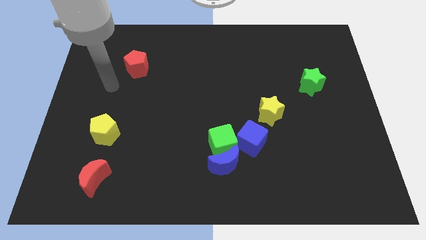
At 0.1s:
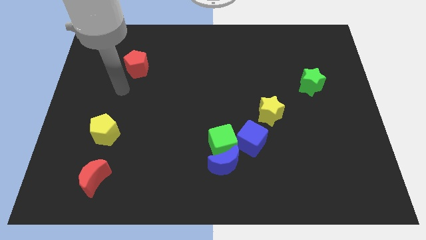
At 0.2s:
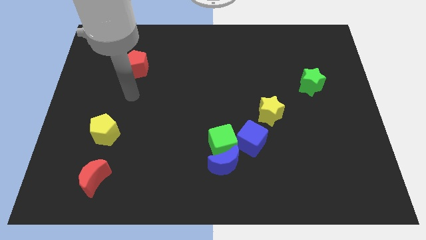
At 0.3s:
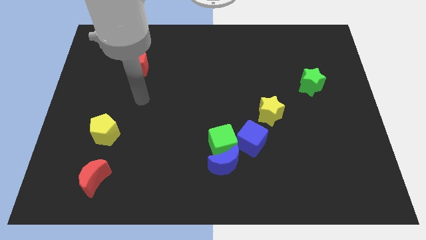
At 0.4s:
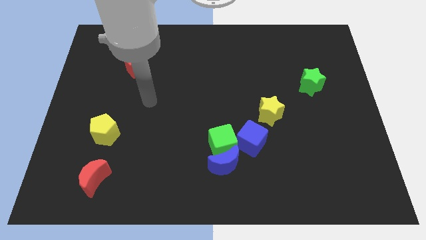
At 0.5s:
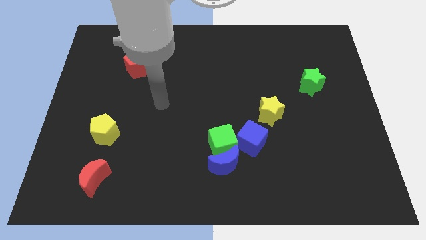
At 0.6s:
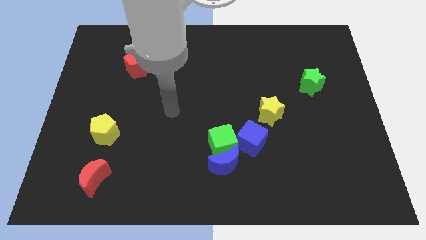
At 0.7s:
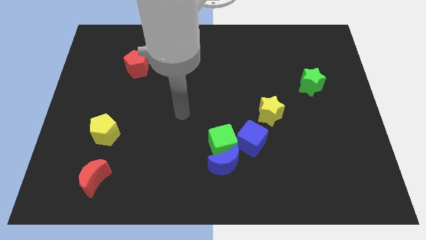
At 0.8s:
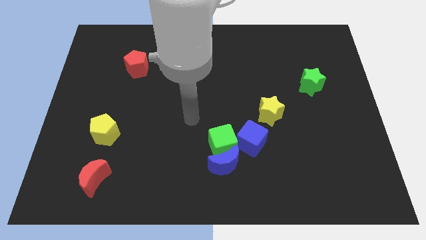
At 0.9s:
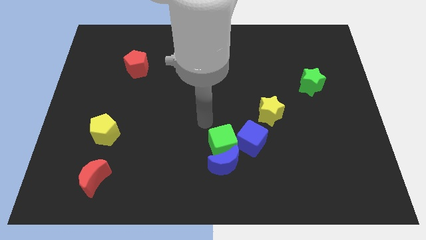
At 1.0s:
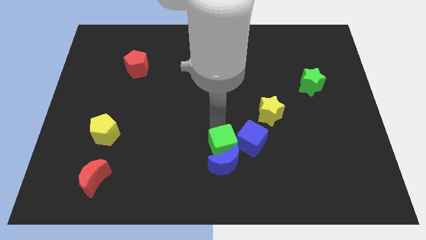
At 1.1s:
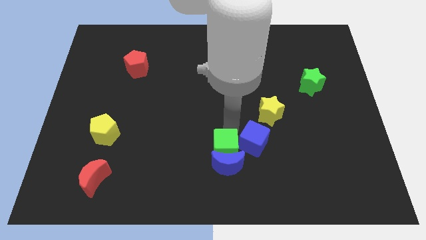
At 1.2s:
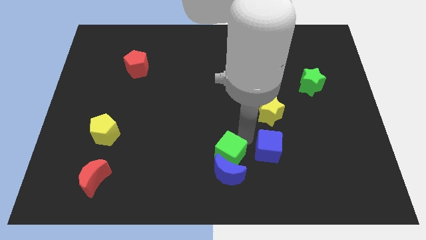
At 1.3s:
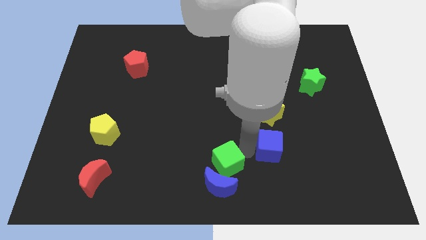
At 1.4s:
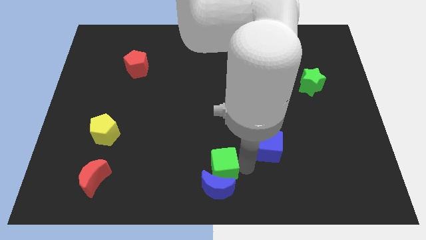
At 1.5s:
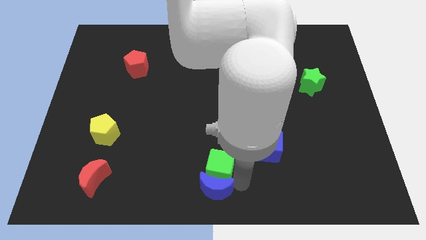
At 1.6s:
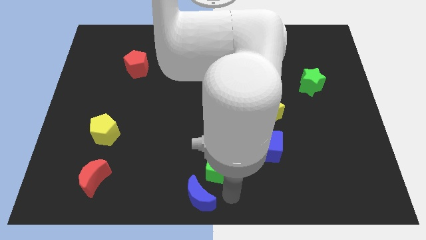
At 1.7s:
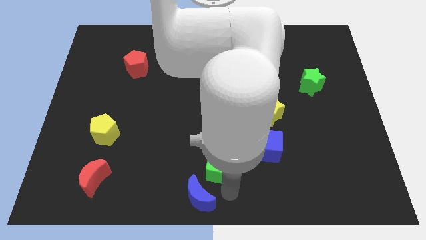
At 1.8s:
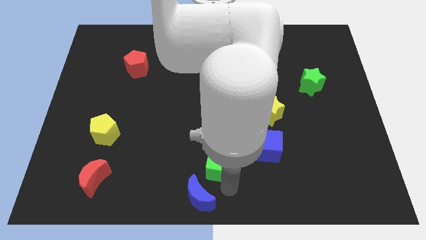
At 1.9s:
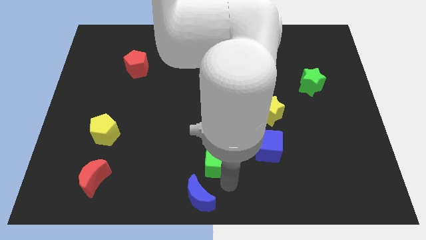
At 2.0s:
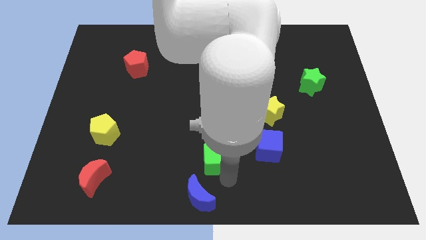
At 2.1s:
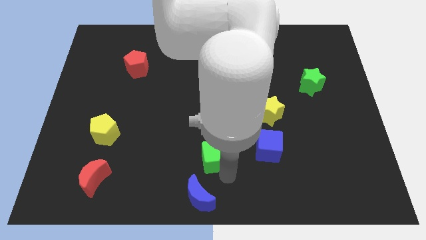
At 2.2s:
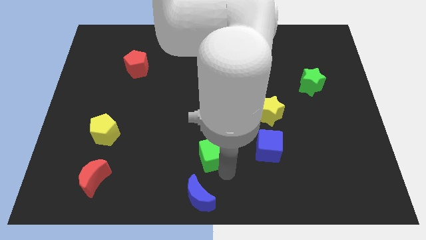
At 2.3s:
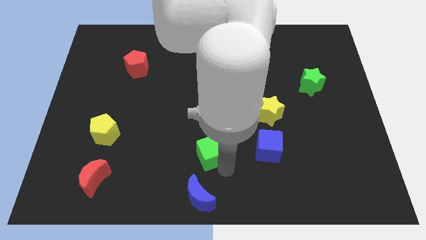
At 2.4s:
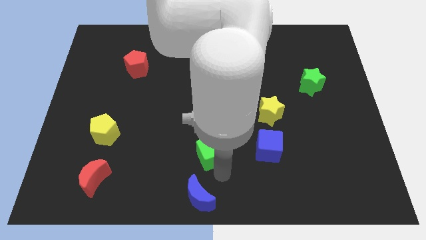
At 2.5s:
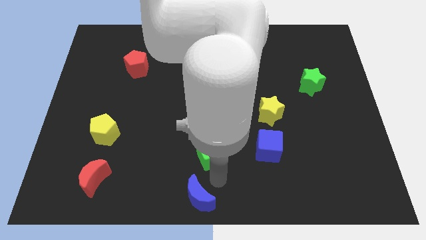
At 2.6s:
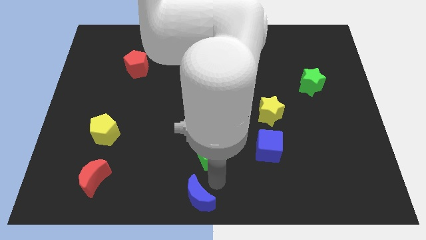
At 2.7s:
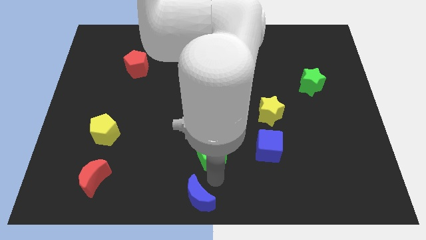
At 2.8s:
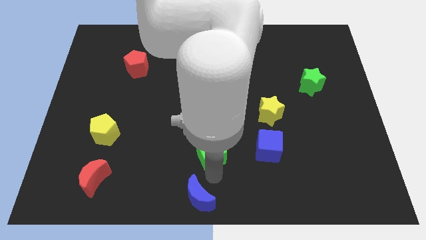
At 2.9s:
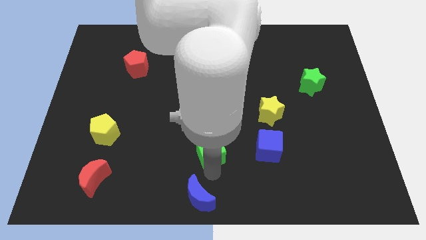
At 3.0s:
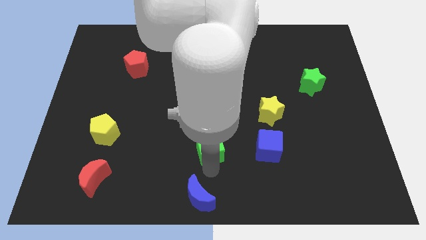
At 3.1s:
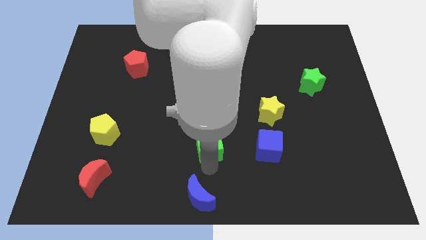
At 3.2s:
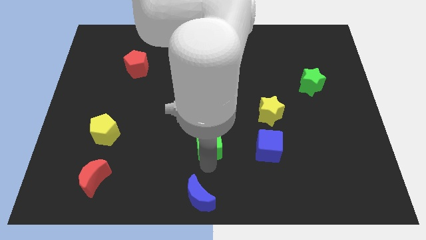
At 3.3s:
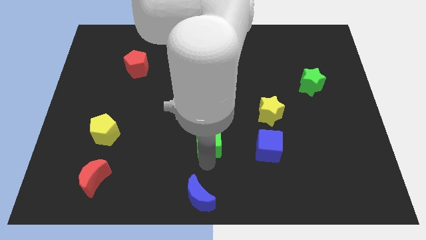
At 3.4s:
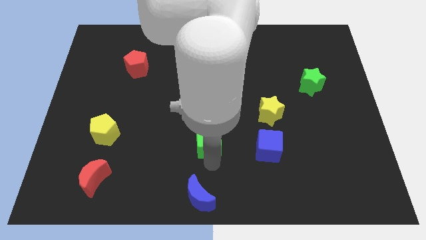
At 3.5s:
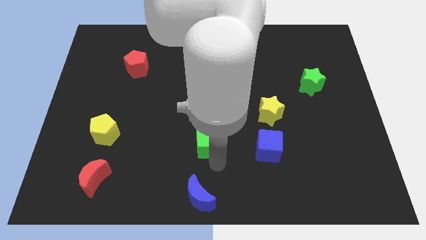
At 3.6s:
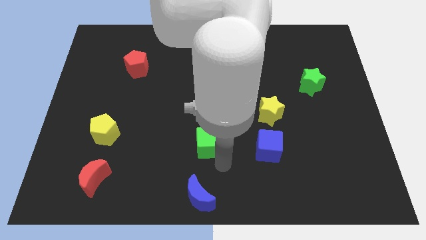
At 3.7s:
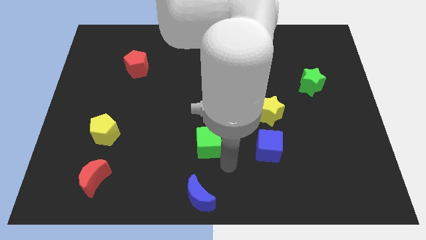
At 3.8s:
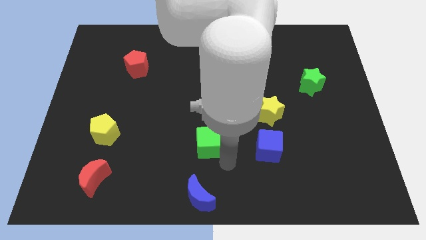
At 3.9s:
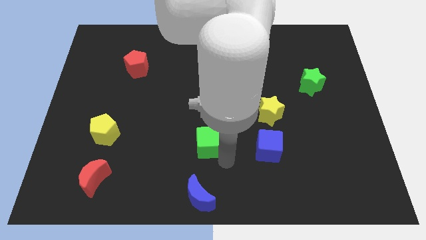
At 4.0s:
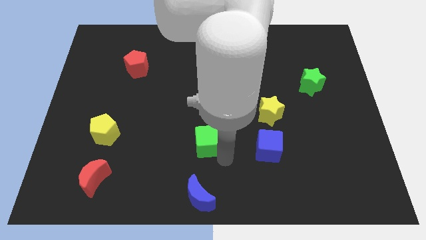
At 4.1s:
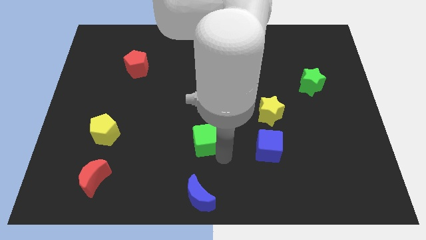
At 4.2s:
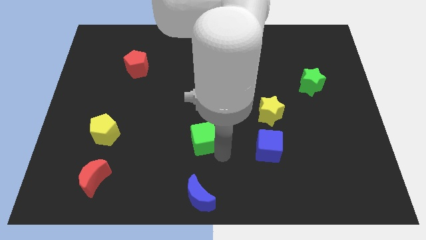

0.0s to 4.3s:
separate the green cube from the blue moon and blue cube

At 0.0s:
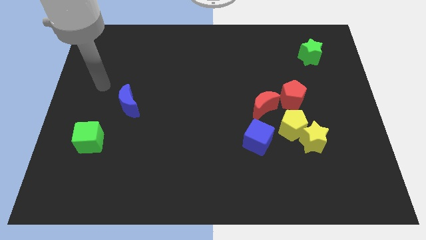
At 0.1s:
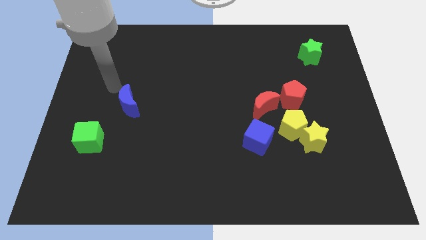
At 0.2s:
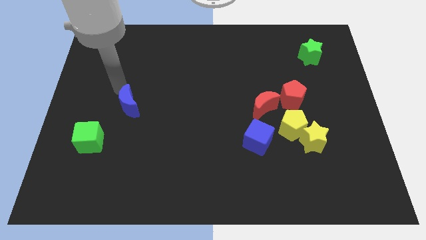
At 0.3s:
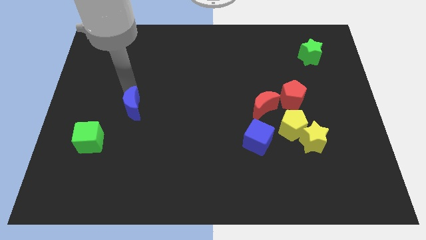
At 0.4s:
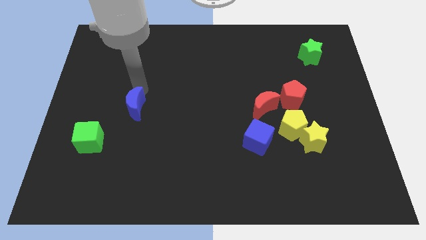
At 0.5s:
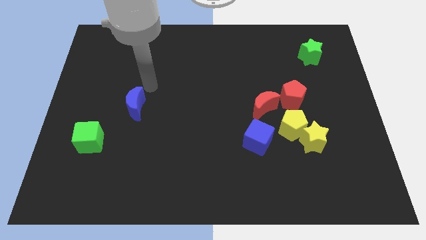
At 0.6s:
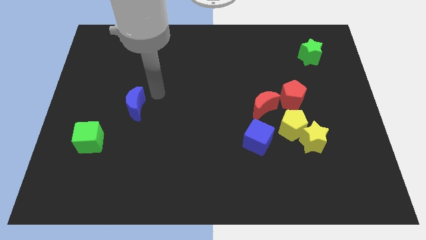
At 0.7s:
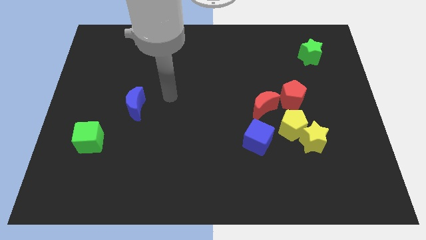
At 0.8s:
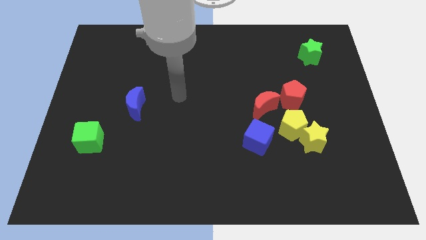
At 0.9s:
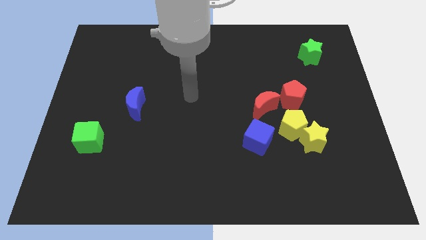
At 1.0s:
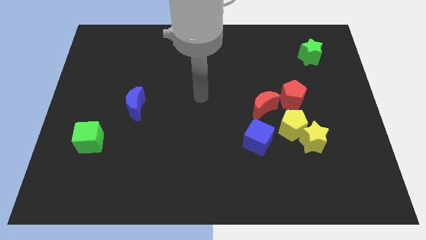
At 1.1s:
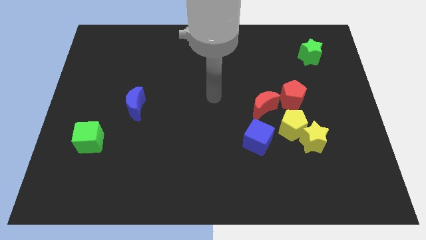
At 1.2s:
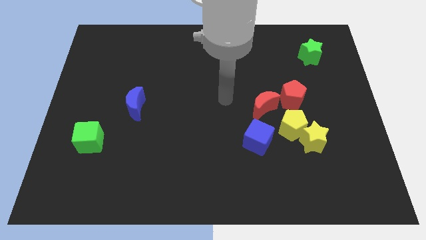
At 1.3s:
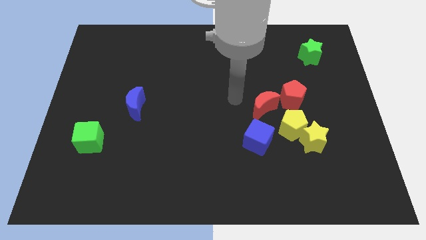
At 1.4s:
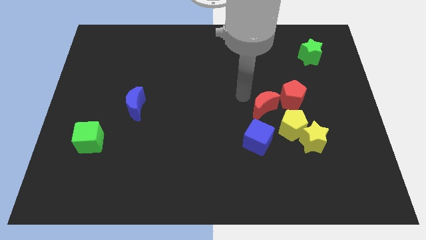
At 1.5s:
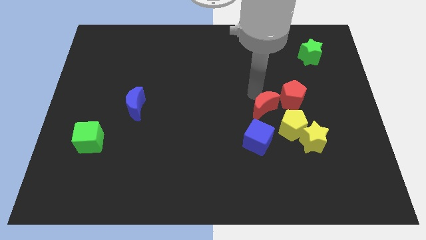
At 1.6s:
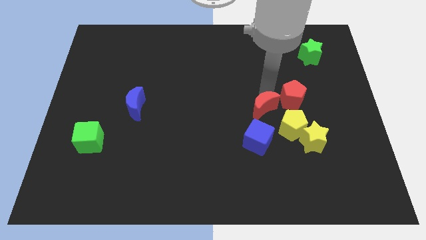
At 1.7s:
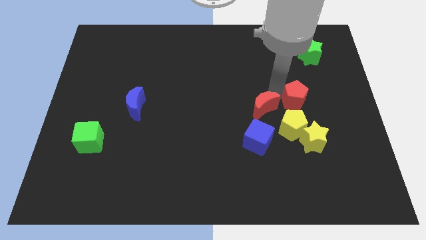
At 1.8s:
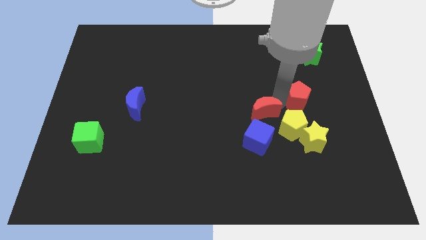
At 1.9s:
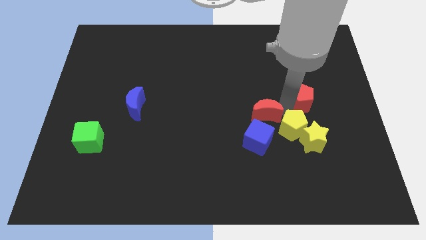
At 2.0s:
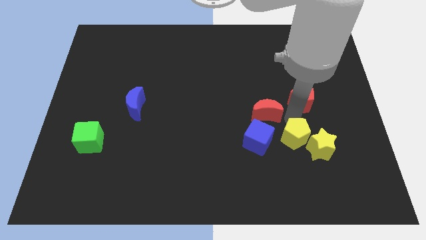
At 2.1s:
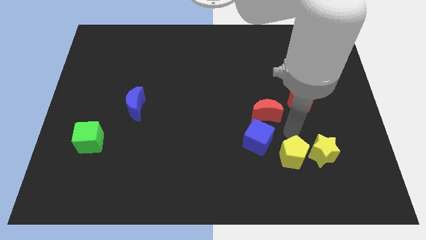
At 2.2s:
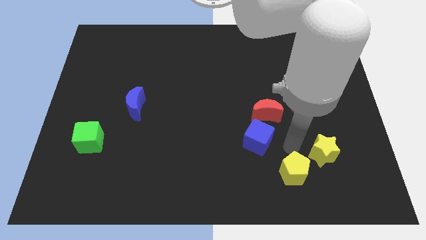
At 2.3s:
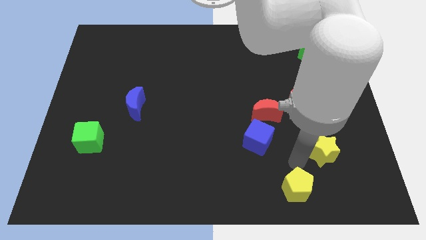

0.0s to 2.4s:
separate the yellow star from the yellow pentagon

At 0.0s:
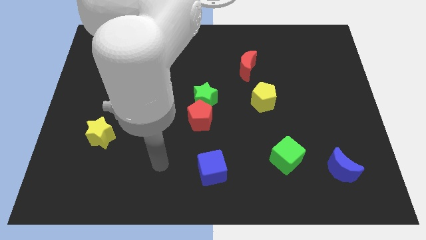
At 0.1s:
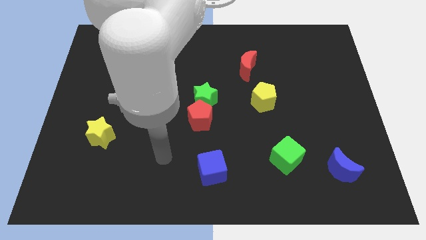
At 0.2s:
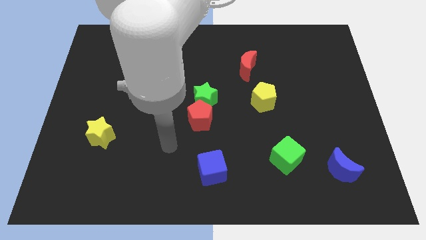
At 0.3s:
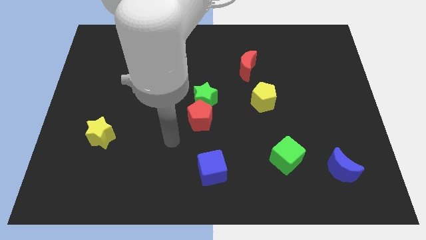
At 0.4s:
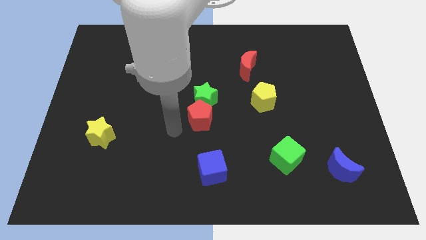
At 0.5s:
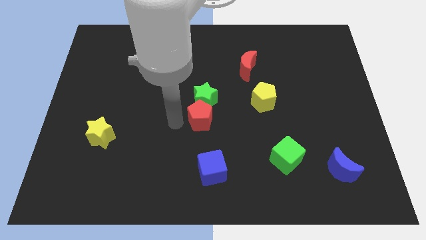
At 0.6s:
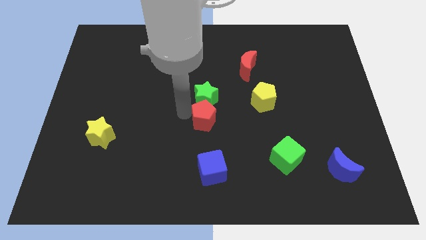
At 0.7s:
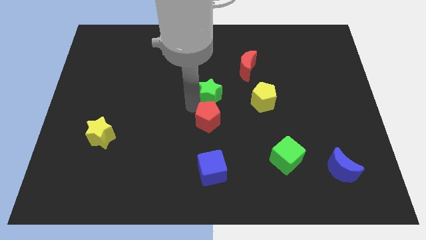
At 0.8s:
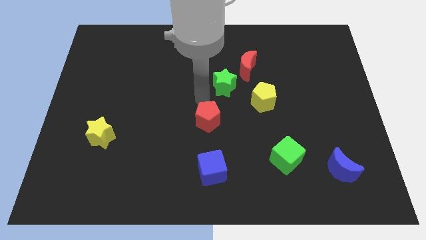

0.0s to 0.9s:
separate the red pentagon from the green star

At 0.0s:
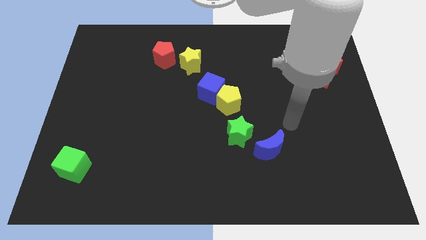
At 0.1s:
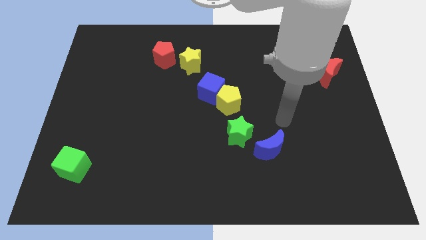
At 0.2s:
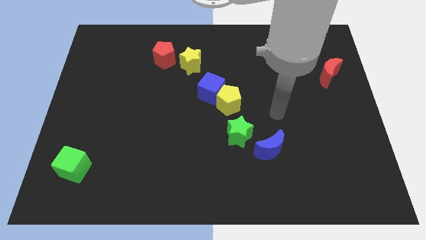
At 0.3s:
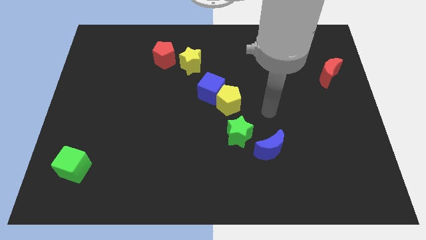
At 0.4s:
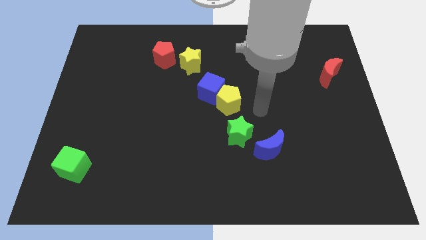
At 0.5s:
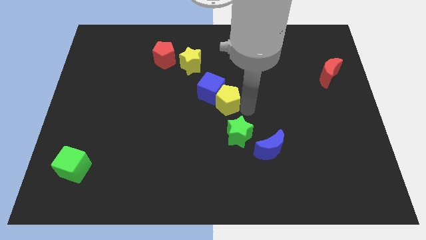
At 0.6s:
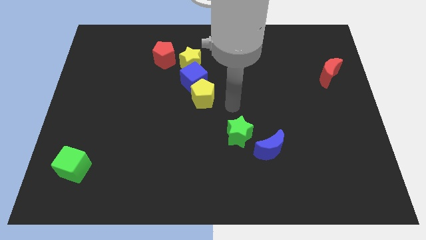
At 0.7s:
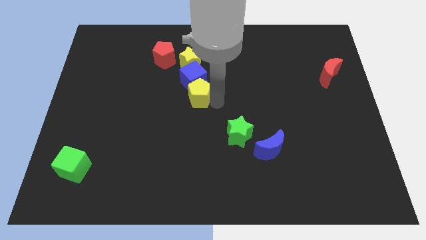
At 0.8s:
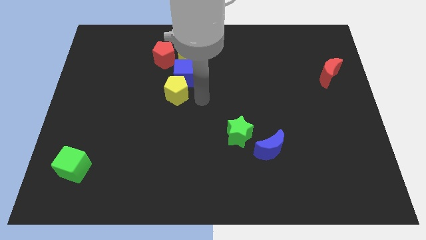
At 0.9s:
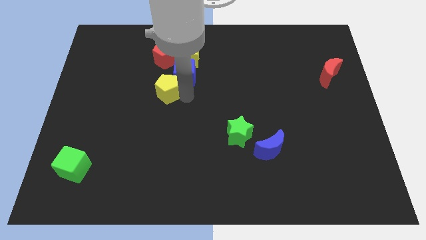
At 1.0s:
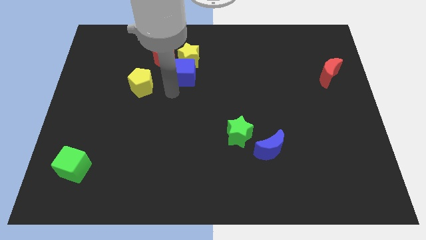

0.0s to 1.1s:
separate the blue cube from the yellow pentagon

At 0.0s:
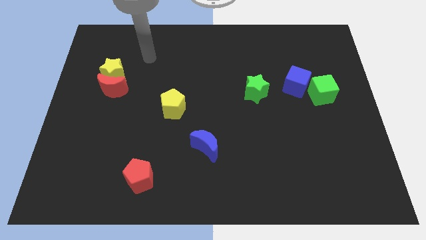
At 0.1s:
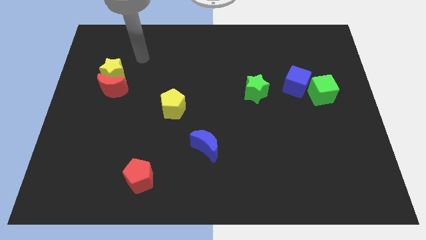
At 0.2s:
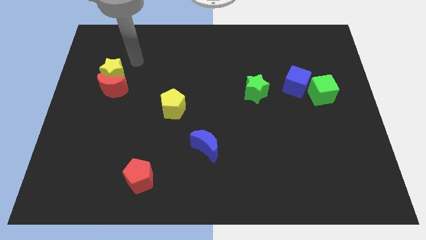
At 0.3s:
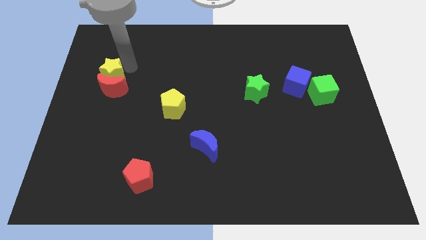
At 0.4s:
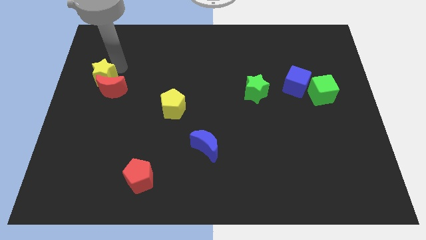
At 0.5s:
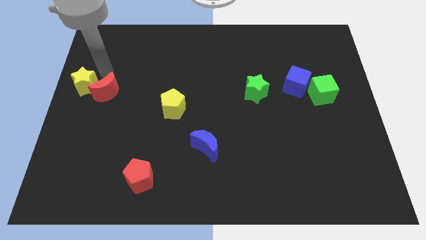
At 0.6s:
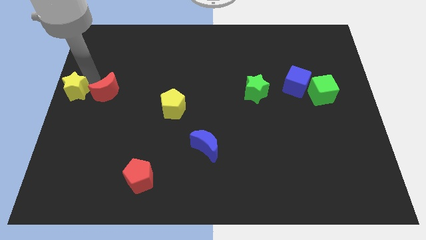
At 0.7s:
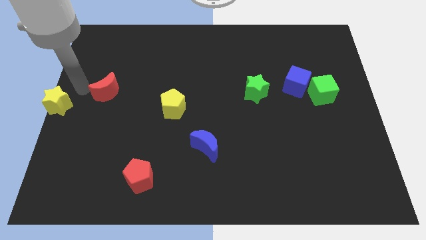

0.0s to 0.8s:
move the red moon away from the yellow star
